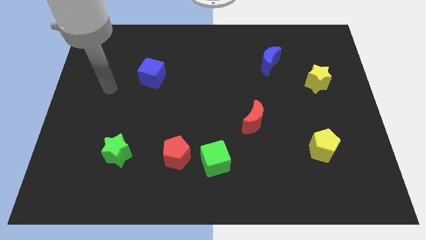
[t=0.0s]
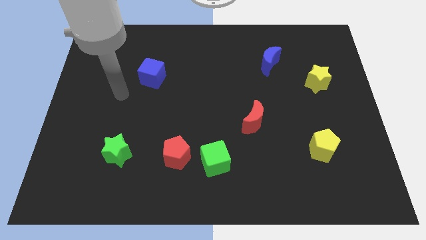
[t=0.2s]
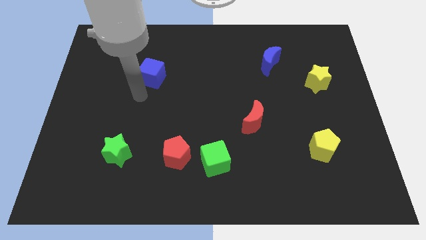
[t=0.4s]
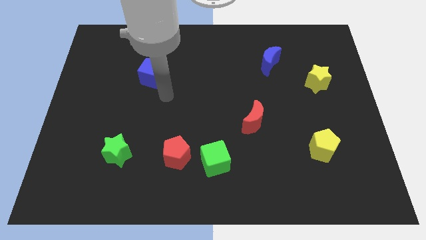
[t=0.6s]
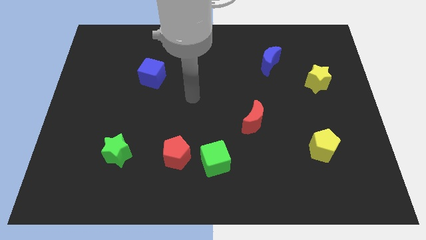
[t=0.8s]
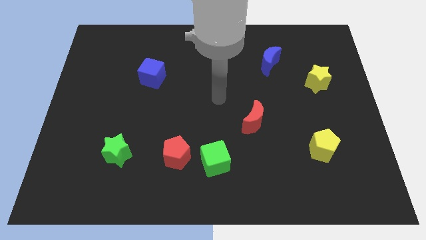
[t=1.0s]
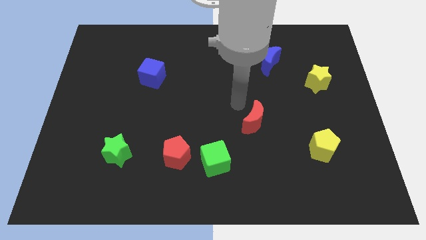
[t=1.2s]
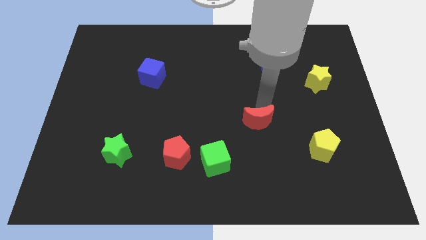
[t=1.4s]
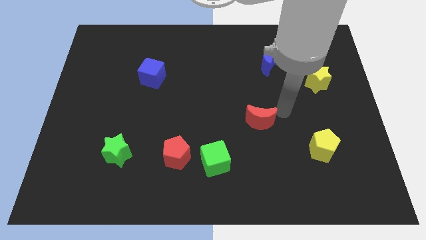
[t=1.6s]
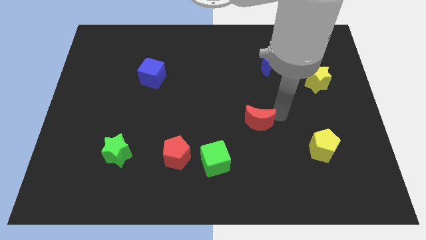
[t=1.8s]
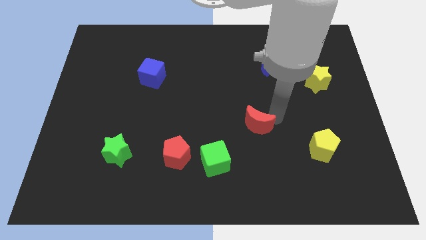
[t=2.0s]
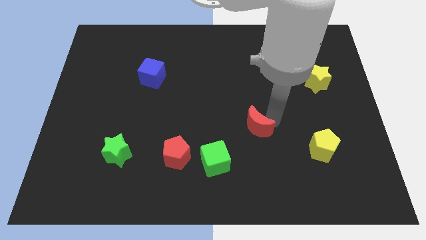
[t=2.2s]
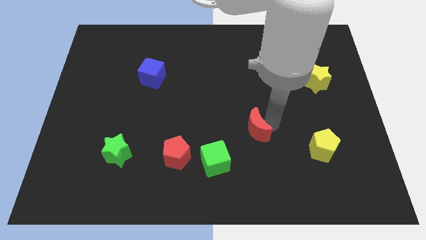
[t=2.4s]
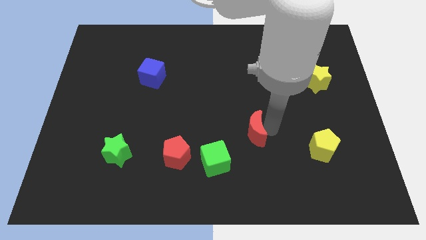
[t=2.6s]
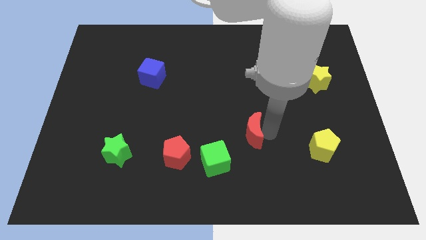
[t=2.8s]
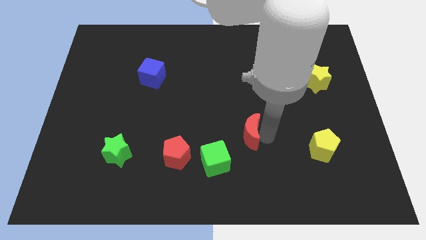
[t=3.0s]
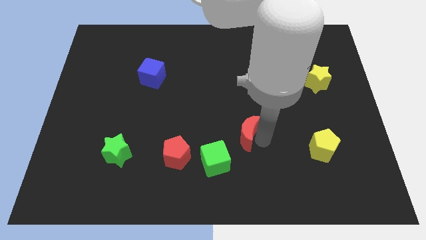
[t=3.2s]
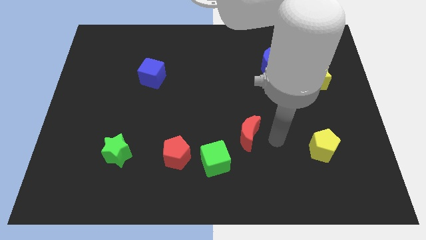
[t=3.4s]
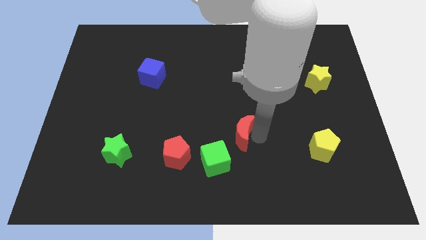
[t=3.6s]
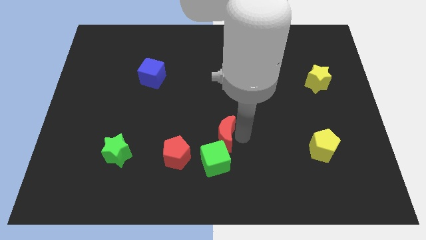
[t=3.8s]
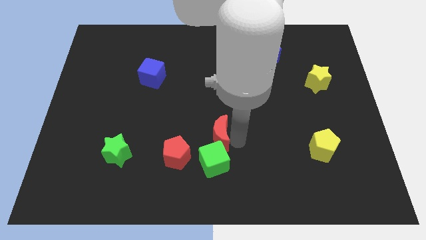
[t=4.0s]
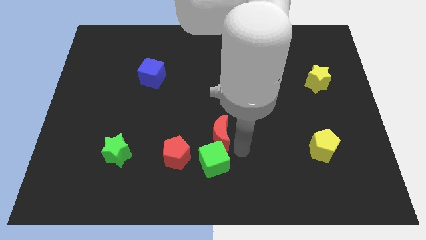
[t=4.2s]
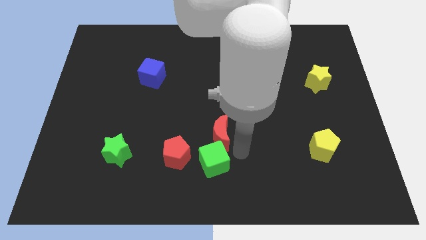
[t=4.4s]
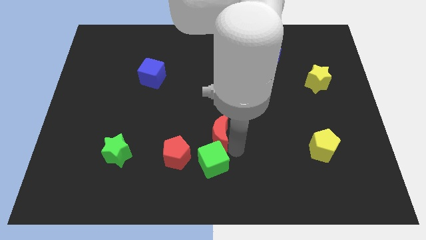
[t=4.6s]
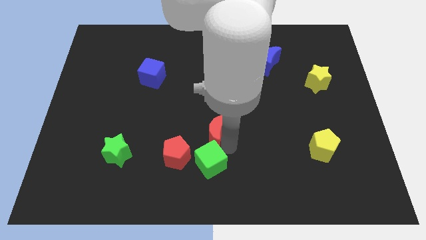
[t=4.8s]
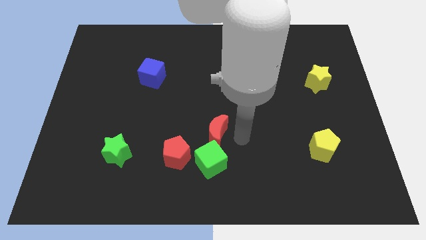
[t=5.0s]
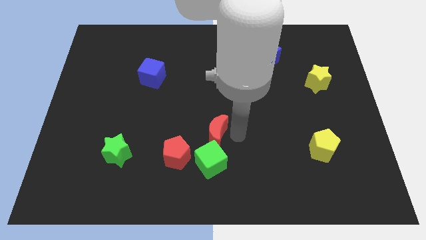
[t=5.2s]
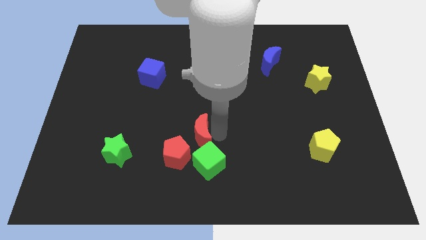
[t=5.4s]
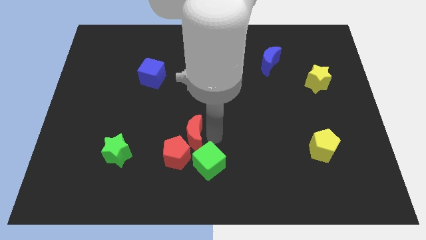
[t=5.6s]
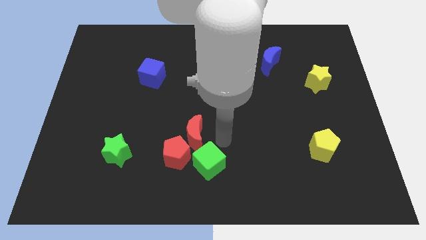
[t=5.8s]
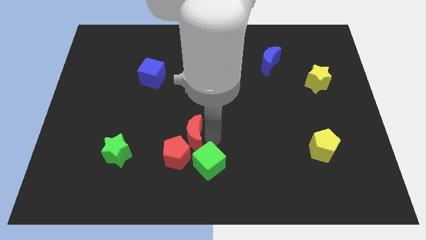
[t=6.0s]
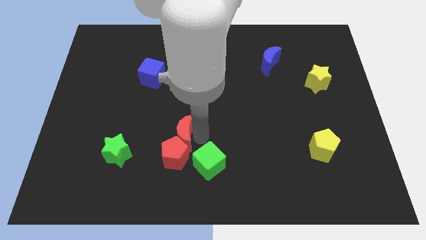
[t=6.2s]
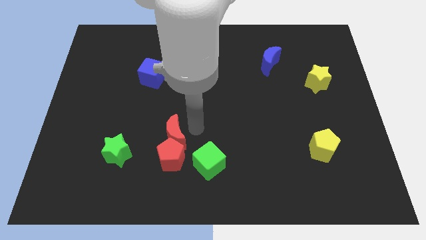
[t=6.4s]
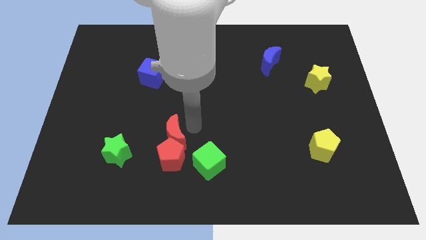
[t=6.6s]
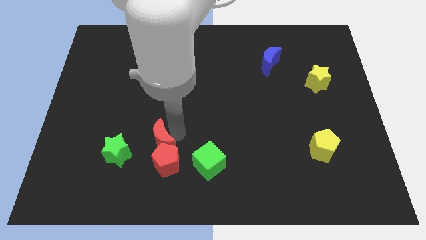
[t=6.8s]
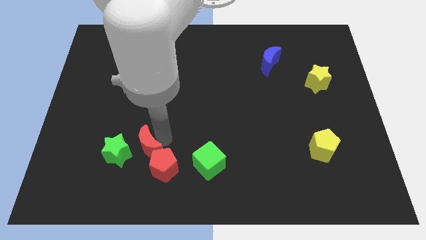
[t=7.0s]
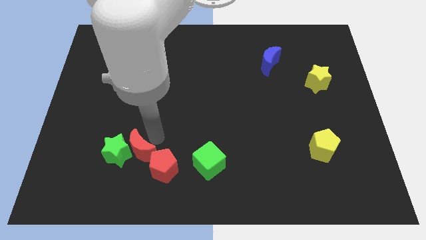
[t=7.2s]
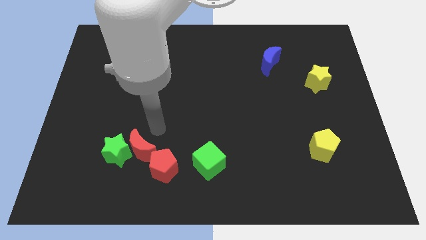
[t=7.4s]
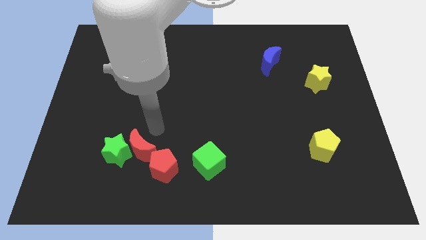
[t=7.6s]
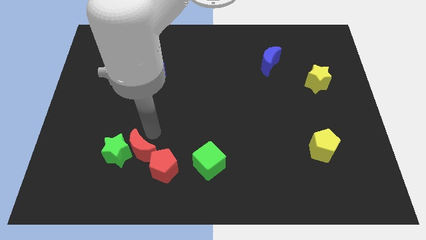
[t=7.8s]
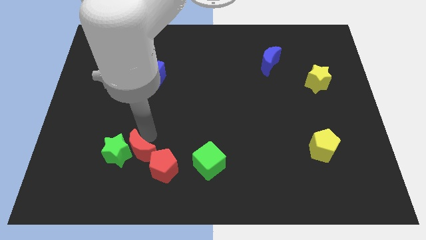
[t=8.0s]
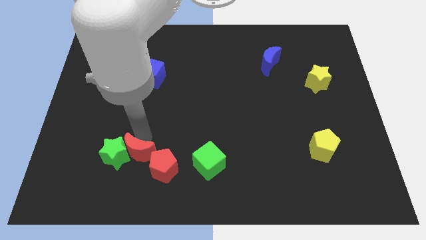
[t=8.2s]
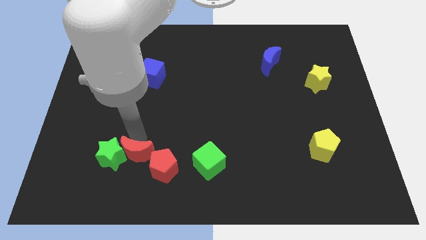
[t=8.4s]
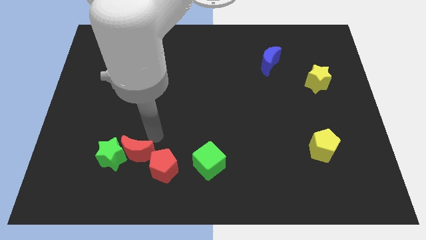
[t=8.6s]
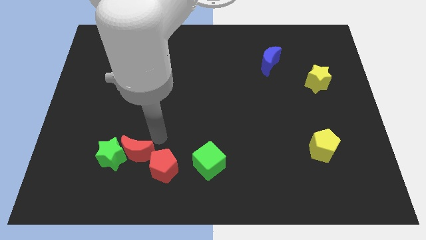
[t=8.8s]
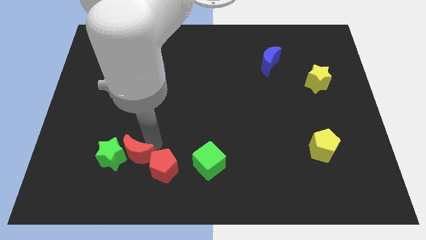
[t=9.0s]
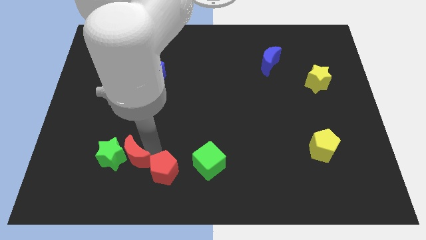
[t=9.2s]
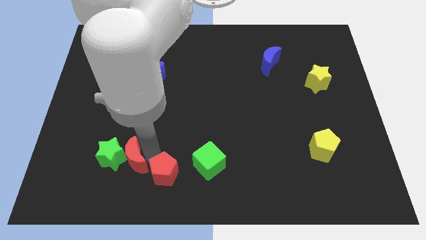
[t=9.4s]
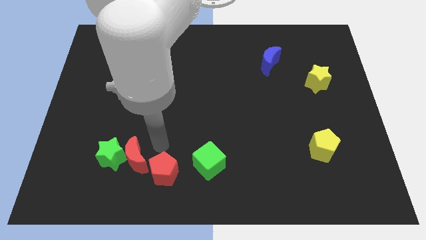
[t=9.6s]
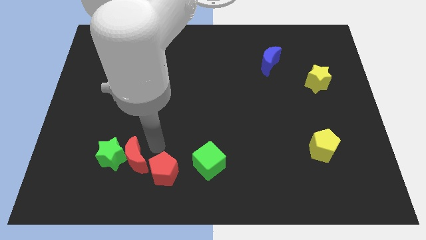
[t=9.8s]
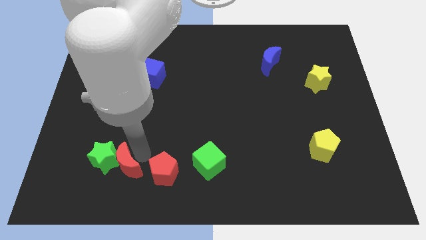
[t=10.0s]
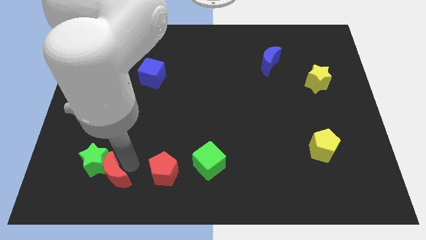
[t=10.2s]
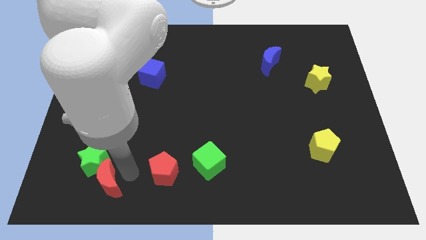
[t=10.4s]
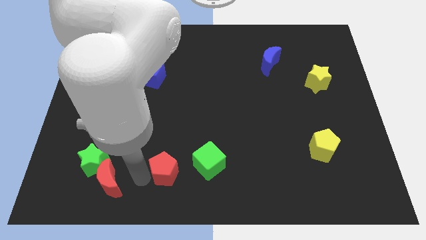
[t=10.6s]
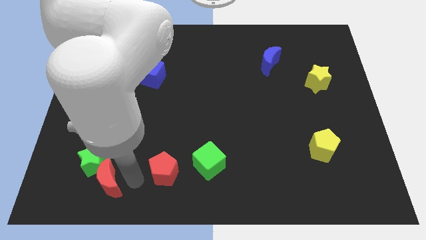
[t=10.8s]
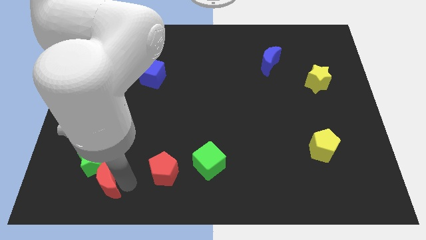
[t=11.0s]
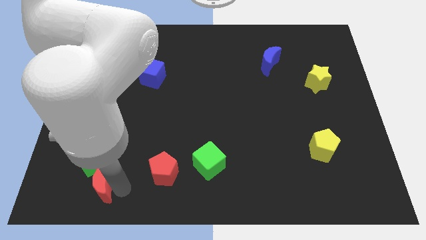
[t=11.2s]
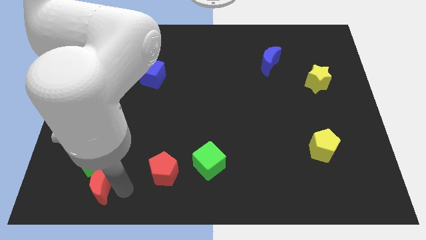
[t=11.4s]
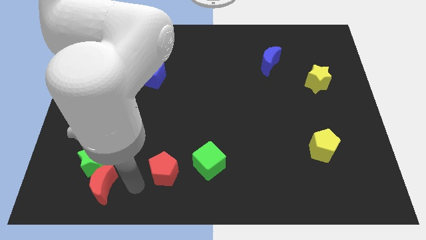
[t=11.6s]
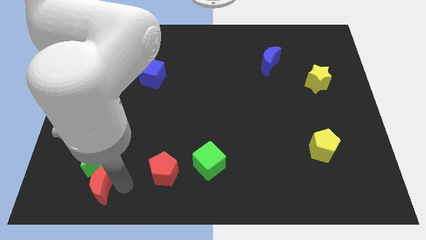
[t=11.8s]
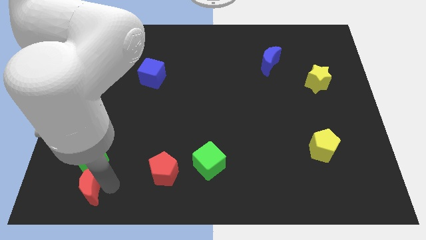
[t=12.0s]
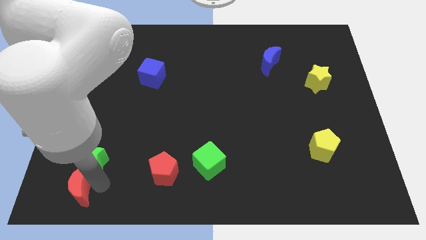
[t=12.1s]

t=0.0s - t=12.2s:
move the red moon to the bottom left

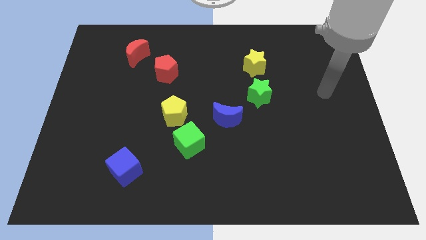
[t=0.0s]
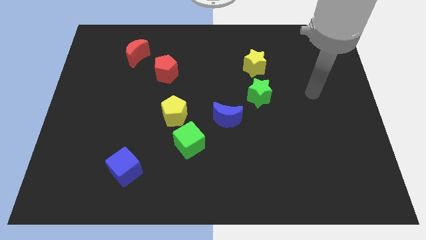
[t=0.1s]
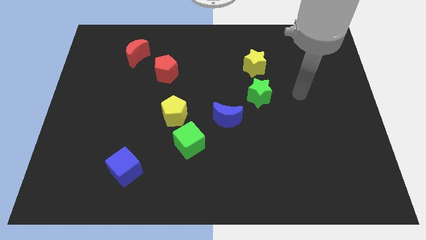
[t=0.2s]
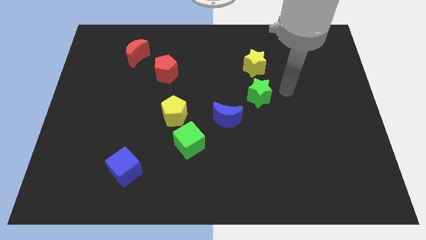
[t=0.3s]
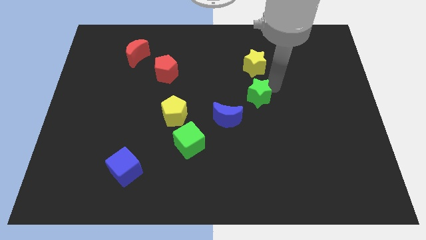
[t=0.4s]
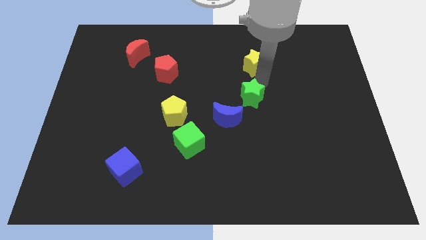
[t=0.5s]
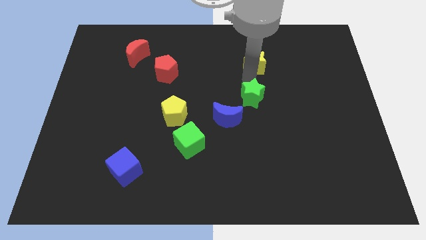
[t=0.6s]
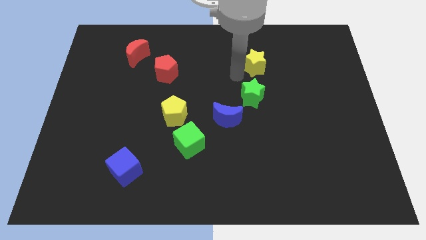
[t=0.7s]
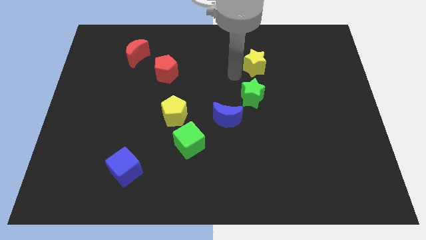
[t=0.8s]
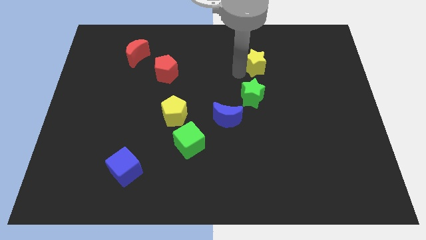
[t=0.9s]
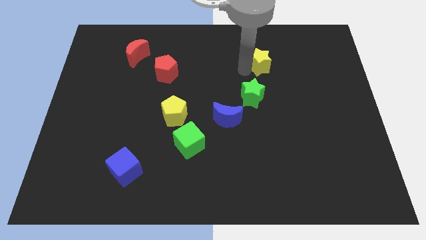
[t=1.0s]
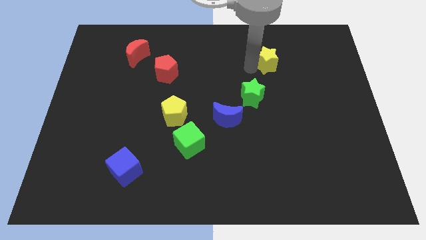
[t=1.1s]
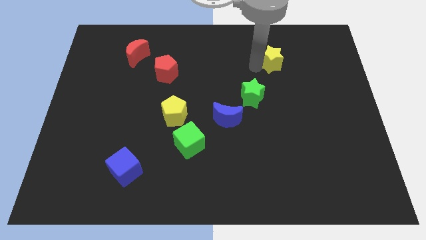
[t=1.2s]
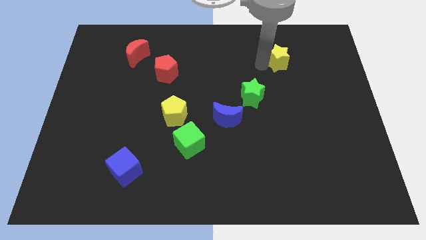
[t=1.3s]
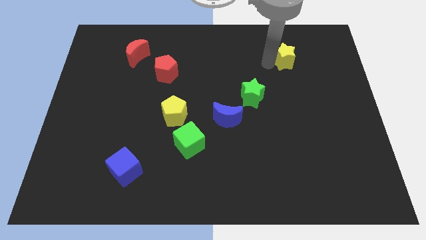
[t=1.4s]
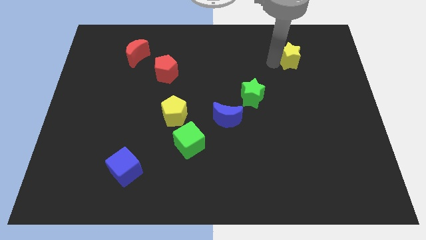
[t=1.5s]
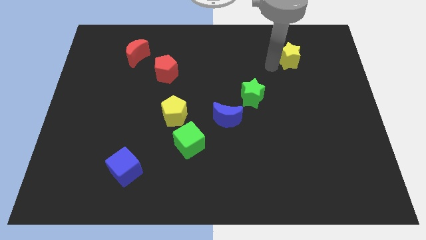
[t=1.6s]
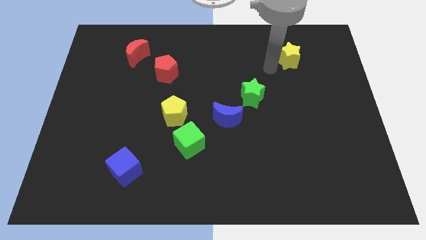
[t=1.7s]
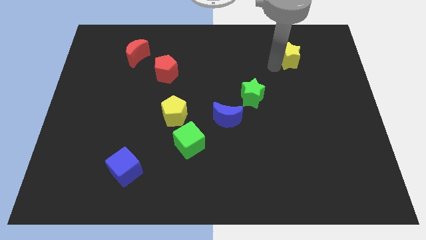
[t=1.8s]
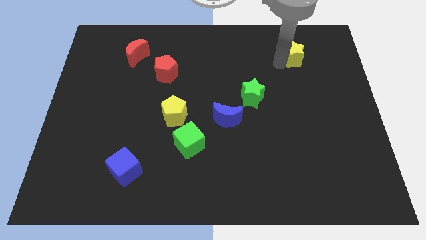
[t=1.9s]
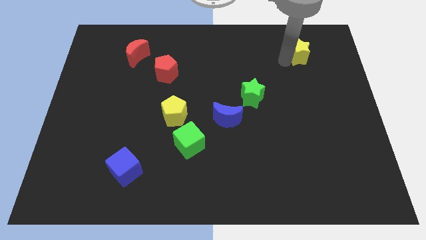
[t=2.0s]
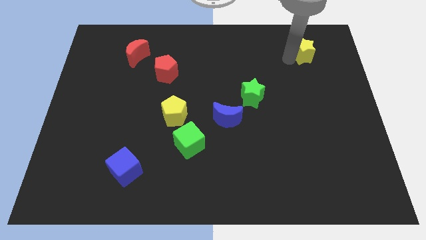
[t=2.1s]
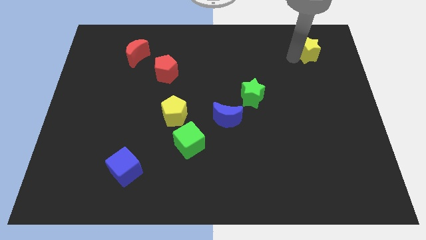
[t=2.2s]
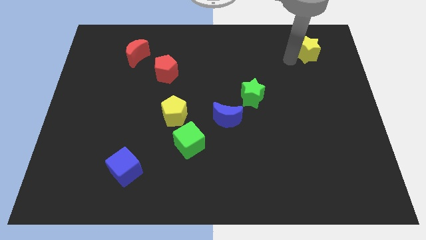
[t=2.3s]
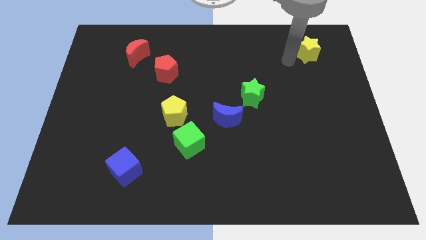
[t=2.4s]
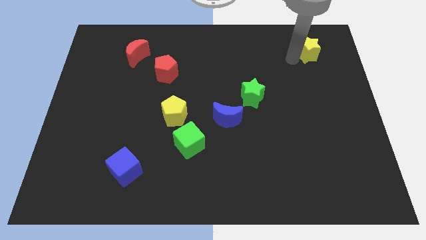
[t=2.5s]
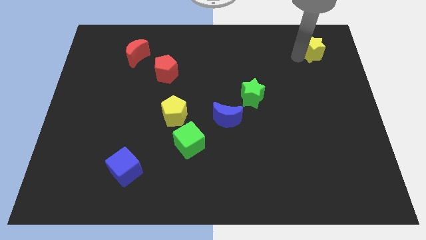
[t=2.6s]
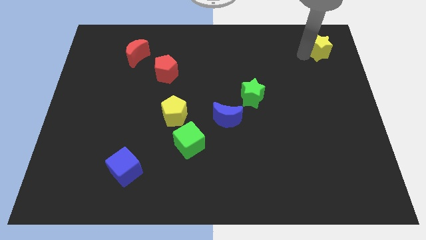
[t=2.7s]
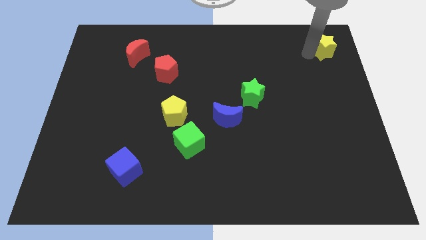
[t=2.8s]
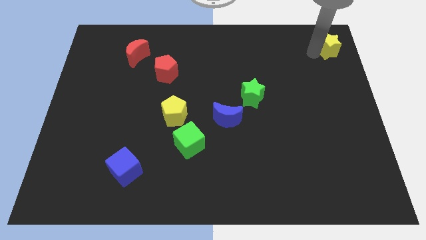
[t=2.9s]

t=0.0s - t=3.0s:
slide the yellow star to the top right corner
